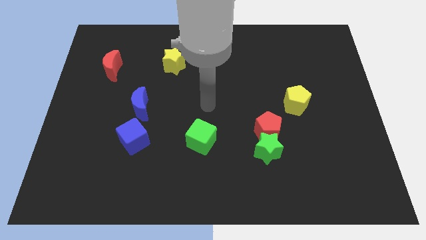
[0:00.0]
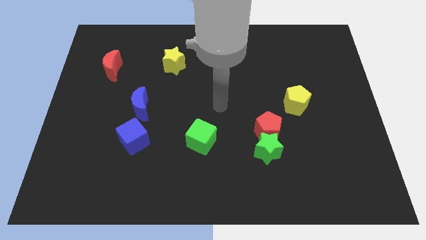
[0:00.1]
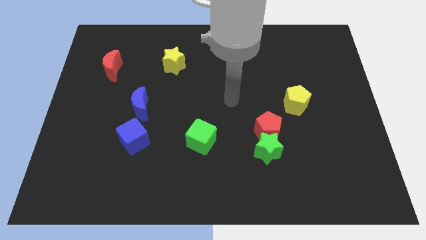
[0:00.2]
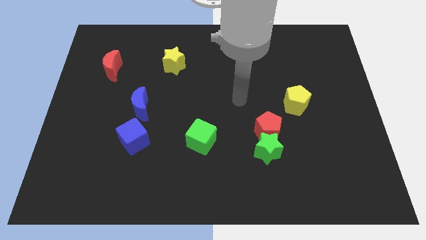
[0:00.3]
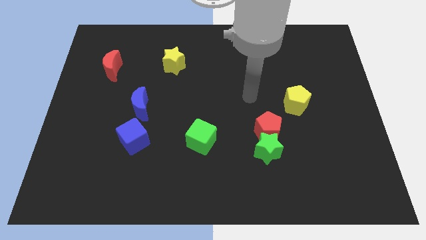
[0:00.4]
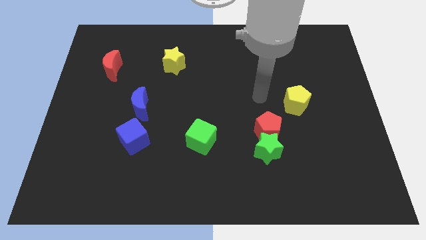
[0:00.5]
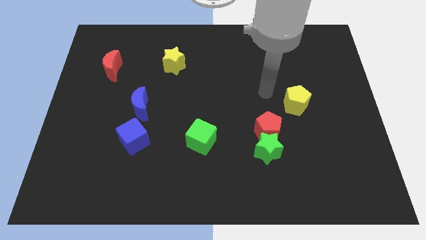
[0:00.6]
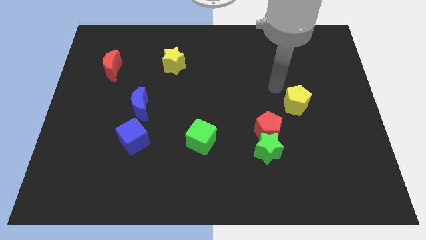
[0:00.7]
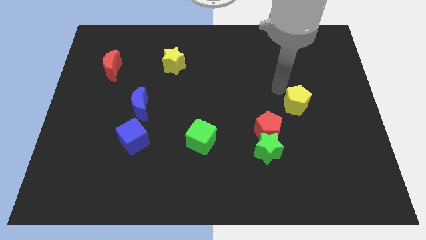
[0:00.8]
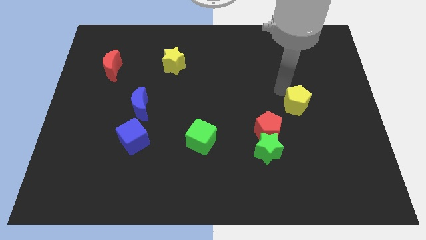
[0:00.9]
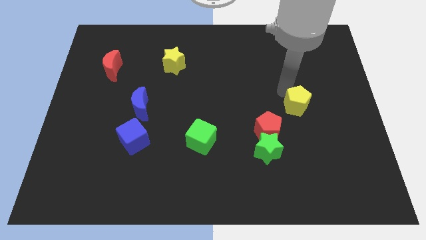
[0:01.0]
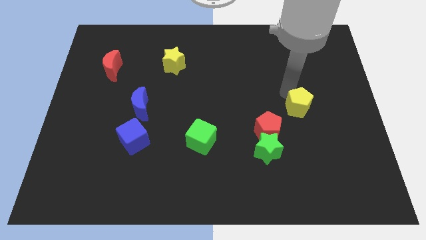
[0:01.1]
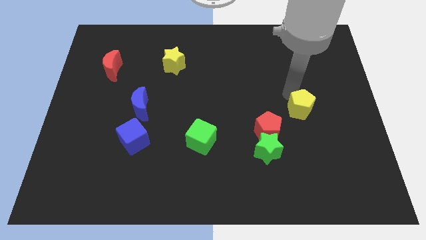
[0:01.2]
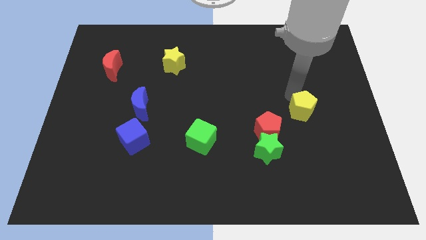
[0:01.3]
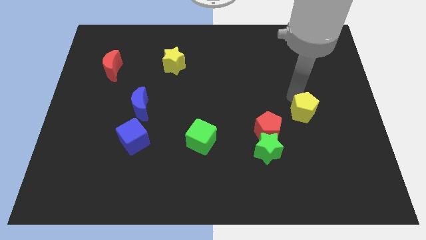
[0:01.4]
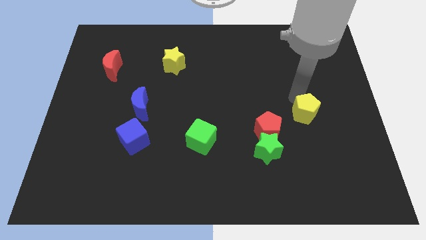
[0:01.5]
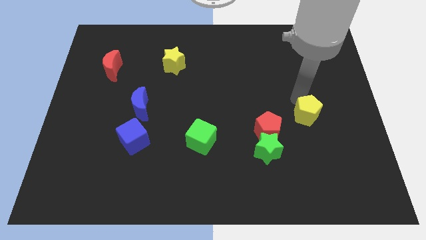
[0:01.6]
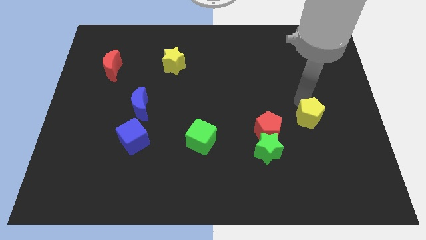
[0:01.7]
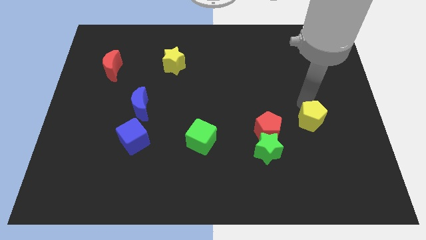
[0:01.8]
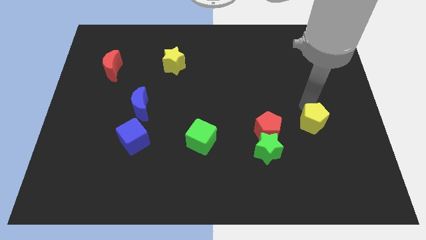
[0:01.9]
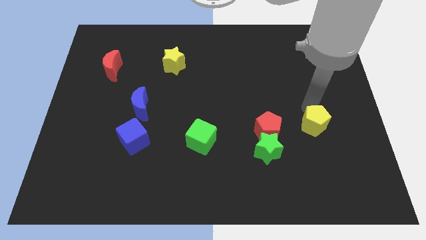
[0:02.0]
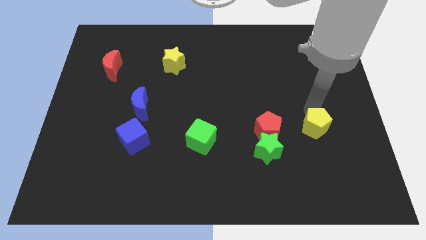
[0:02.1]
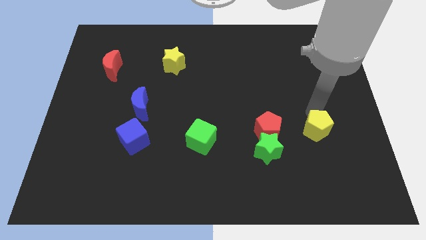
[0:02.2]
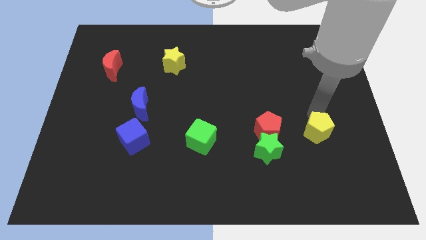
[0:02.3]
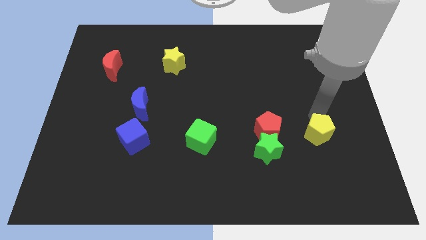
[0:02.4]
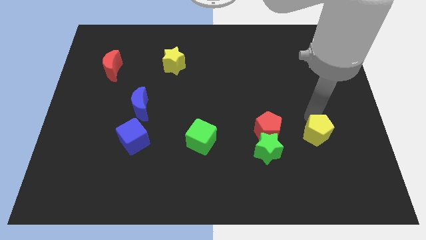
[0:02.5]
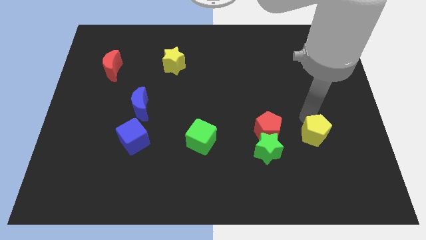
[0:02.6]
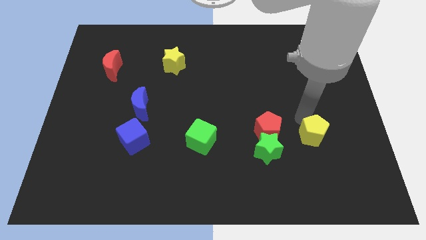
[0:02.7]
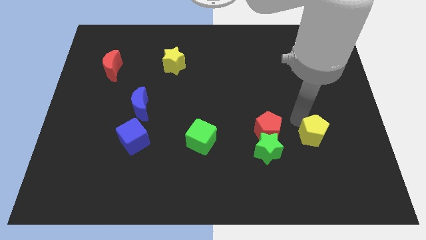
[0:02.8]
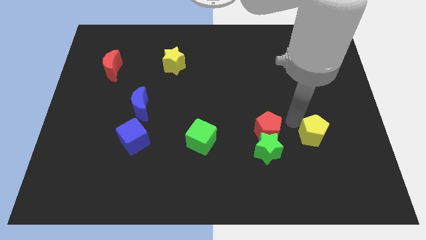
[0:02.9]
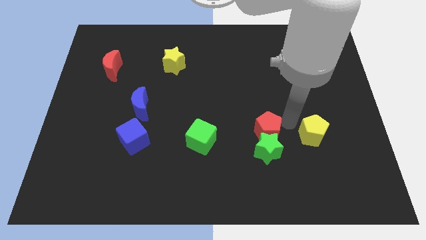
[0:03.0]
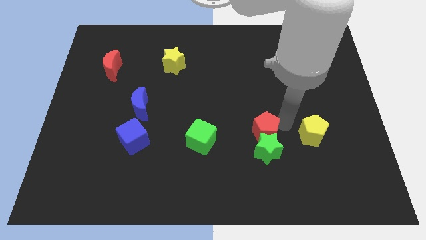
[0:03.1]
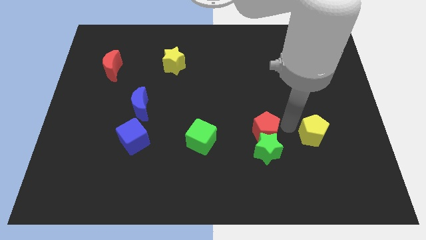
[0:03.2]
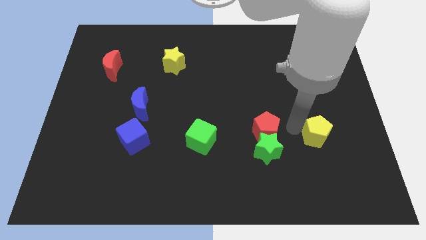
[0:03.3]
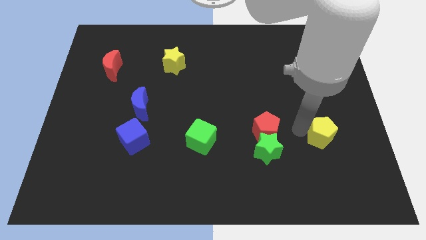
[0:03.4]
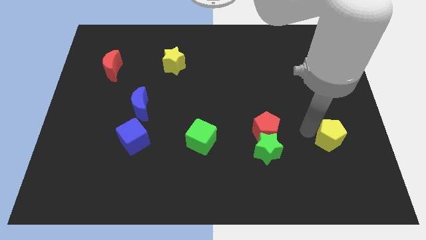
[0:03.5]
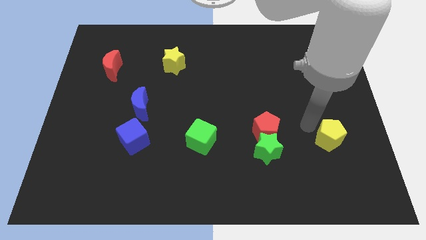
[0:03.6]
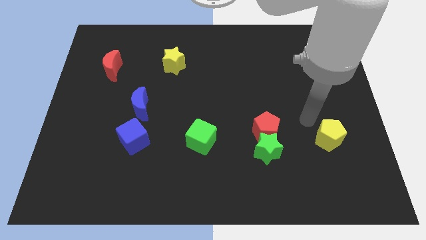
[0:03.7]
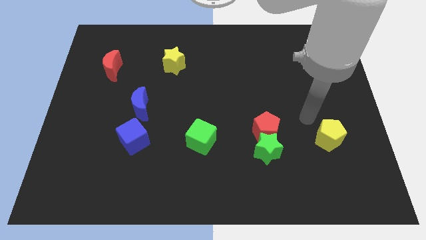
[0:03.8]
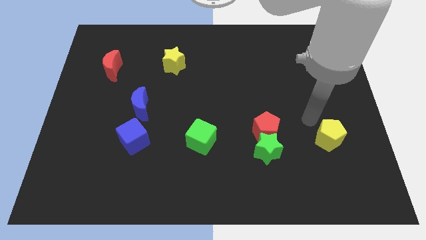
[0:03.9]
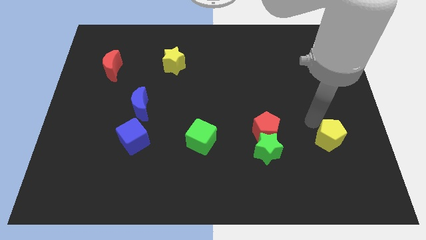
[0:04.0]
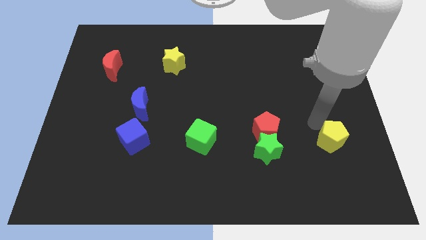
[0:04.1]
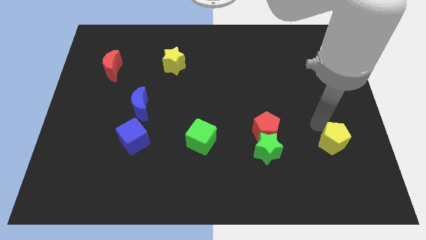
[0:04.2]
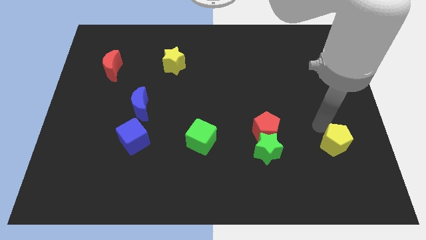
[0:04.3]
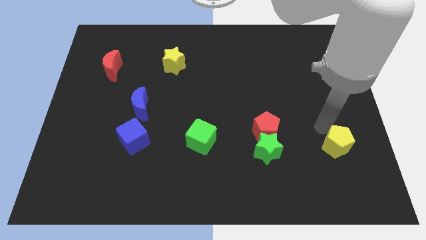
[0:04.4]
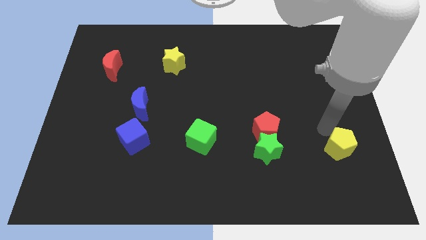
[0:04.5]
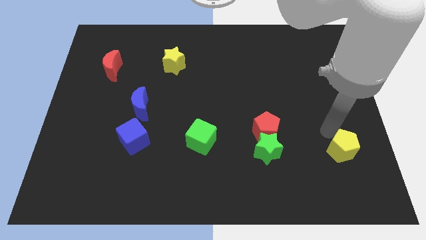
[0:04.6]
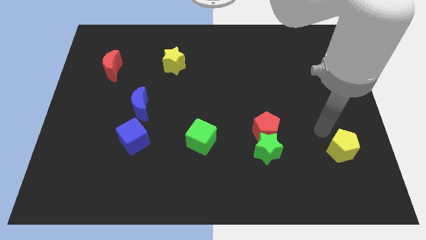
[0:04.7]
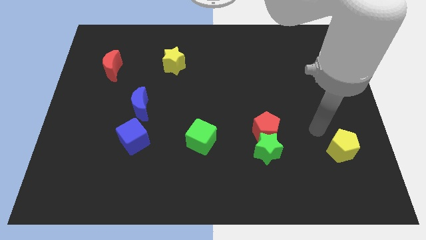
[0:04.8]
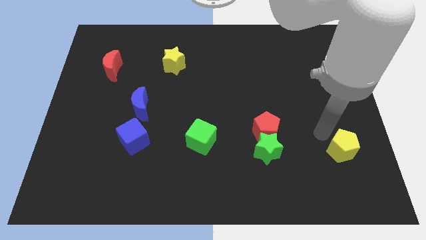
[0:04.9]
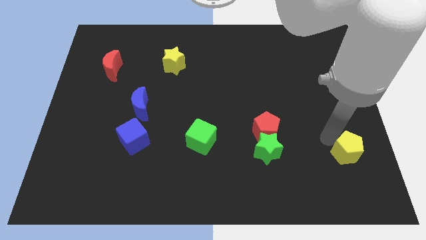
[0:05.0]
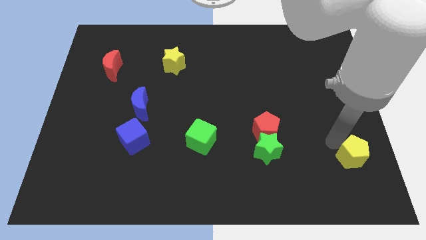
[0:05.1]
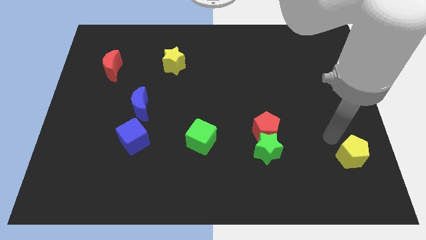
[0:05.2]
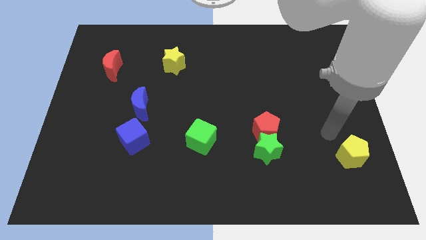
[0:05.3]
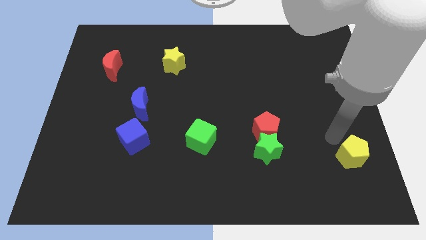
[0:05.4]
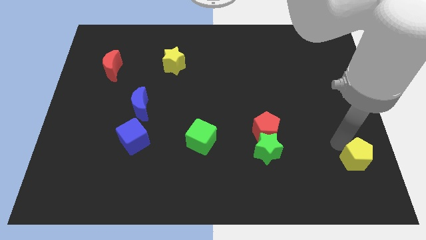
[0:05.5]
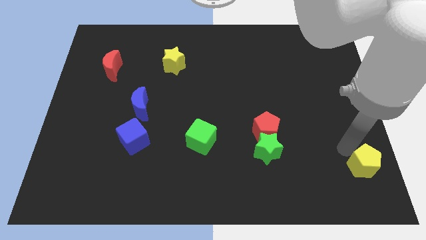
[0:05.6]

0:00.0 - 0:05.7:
put the yellow pentagon to the bottom right
